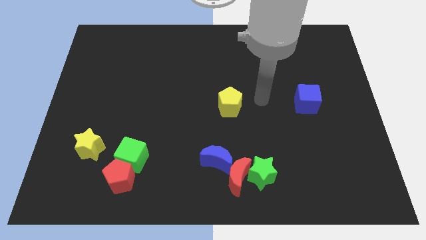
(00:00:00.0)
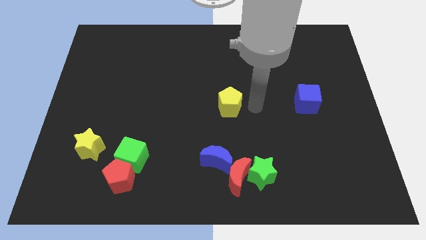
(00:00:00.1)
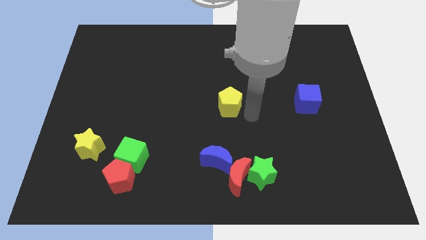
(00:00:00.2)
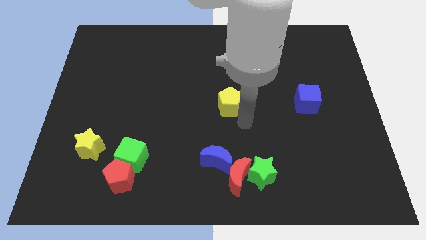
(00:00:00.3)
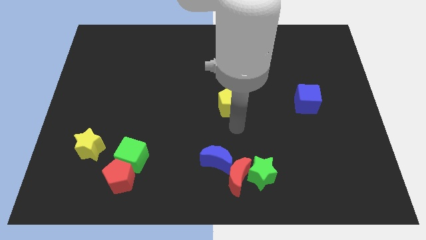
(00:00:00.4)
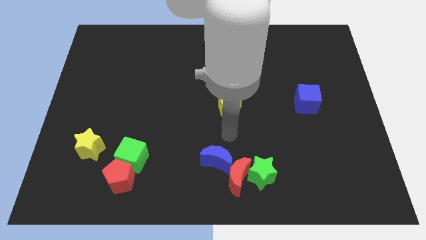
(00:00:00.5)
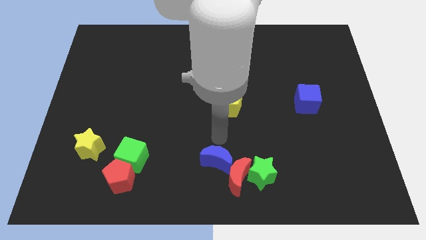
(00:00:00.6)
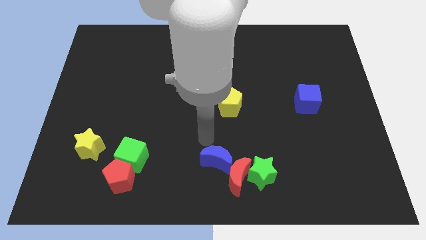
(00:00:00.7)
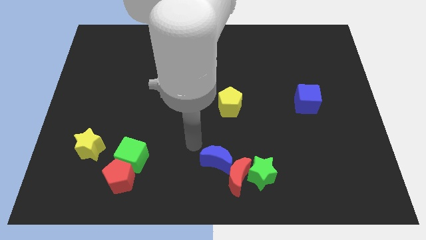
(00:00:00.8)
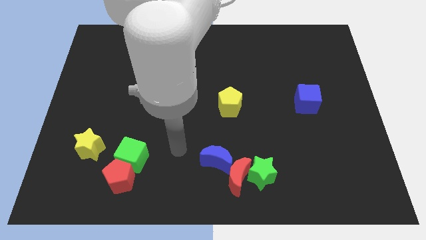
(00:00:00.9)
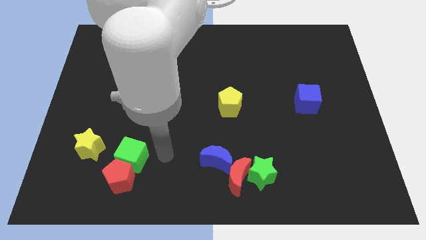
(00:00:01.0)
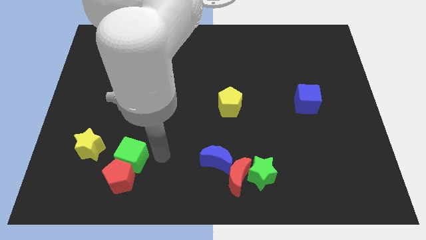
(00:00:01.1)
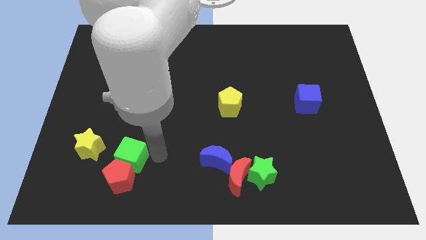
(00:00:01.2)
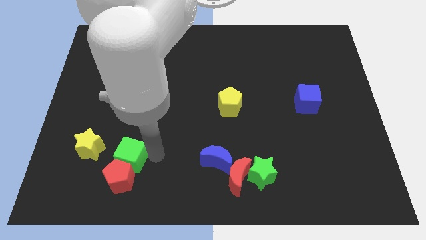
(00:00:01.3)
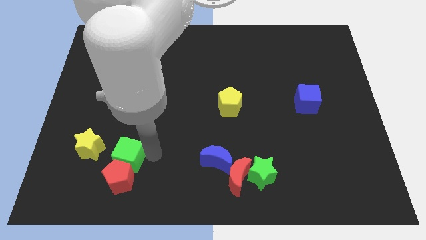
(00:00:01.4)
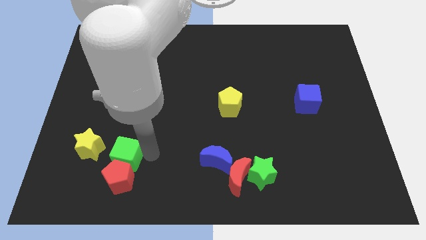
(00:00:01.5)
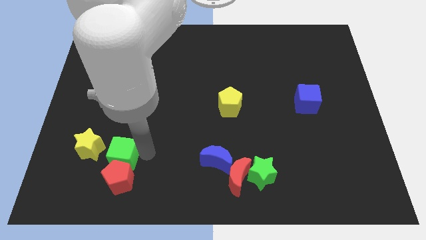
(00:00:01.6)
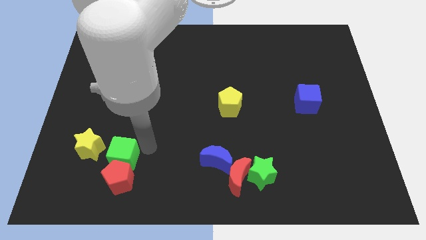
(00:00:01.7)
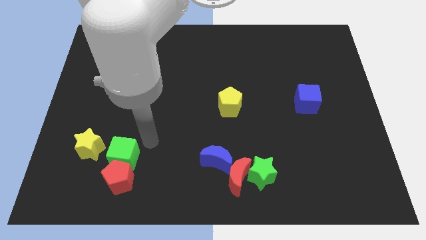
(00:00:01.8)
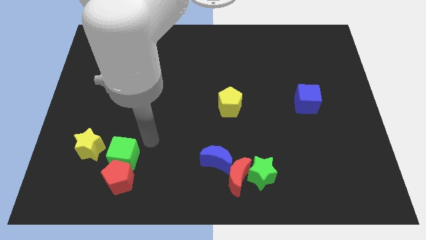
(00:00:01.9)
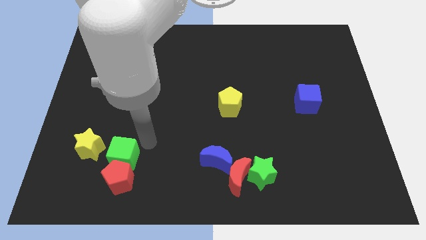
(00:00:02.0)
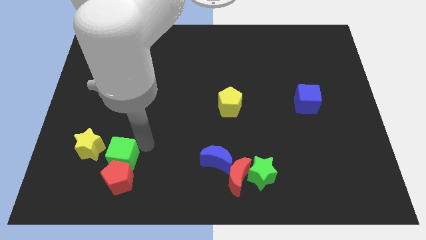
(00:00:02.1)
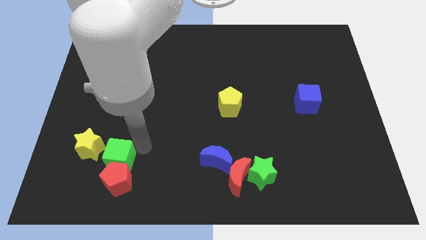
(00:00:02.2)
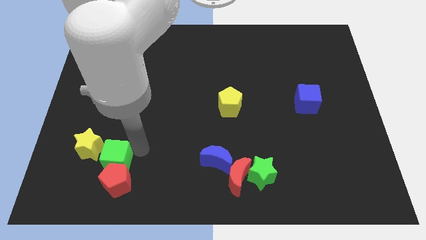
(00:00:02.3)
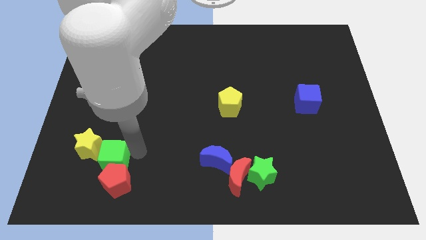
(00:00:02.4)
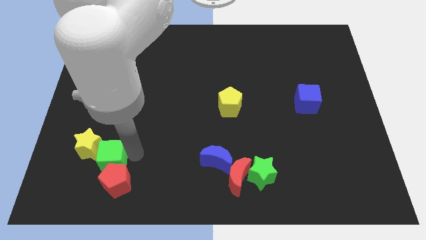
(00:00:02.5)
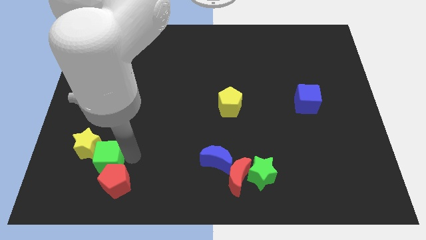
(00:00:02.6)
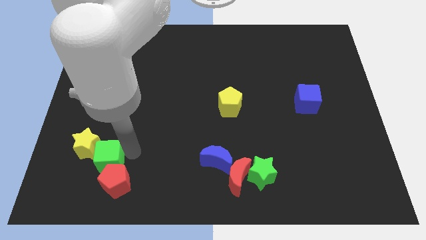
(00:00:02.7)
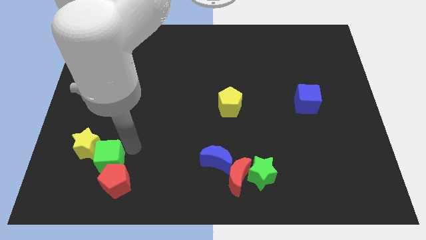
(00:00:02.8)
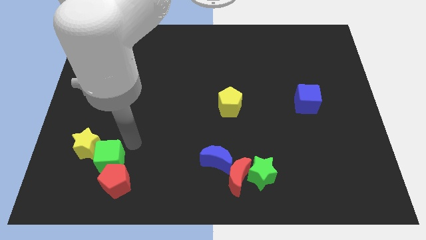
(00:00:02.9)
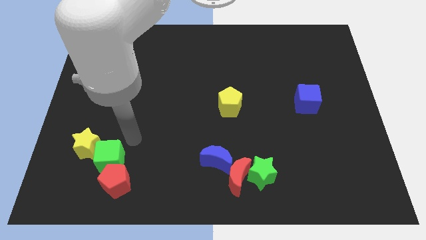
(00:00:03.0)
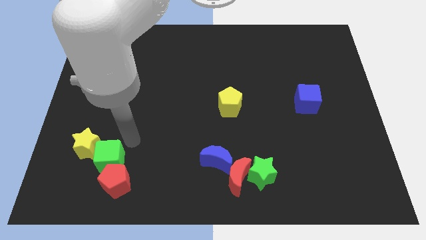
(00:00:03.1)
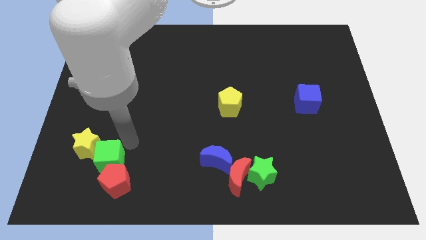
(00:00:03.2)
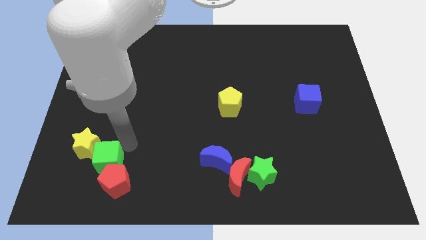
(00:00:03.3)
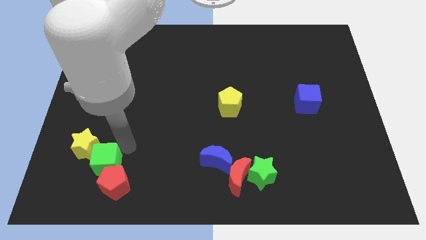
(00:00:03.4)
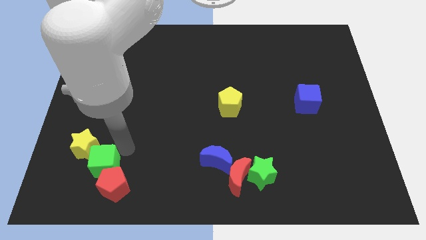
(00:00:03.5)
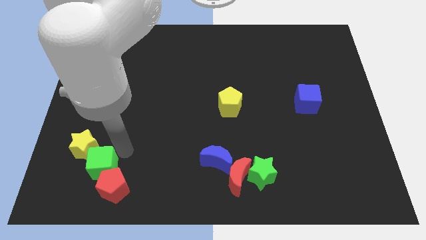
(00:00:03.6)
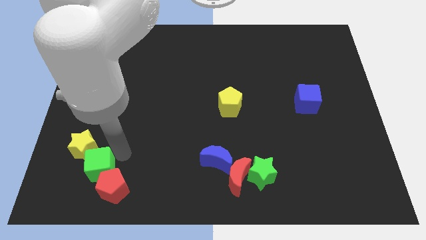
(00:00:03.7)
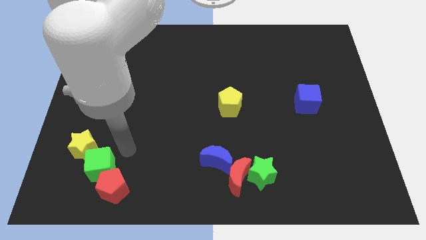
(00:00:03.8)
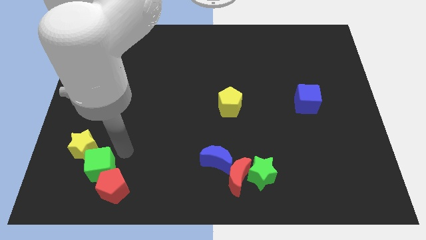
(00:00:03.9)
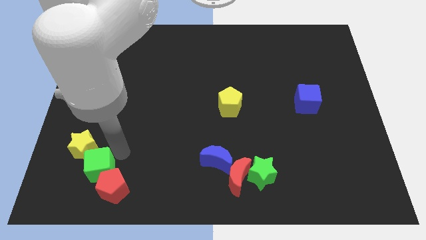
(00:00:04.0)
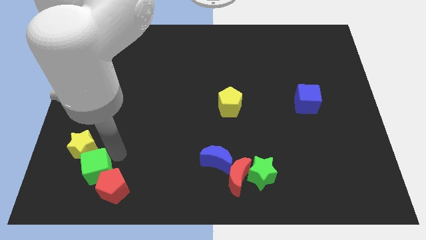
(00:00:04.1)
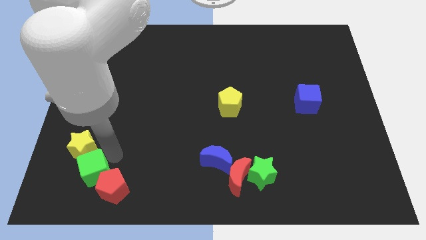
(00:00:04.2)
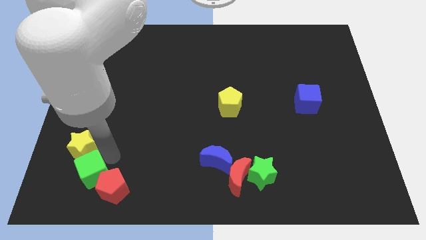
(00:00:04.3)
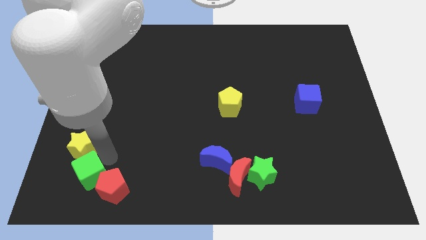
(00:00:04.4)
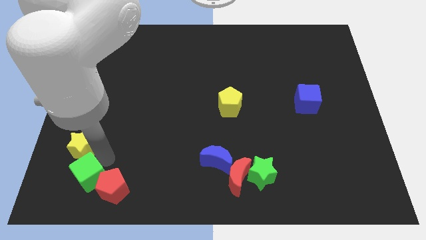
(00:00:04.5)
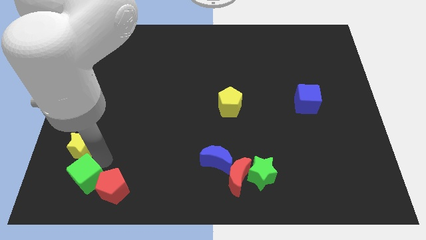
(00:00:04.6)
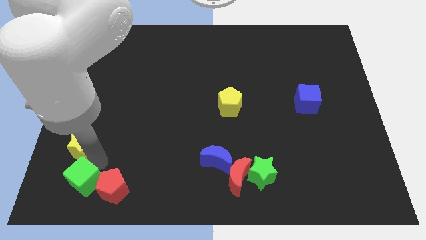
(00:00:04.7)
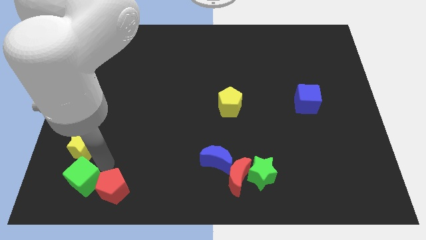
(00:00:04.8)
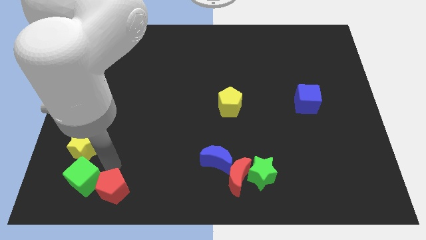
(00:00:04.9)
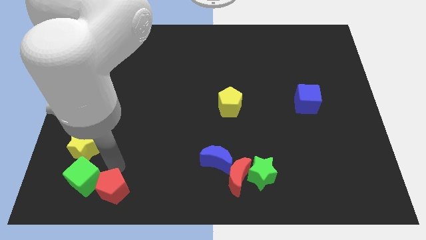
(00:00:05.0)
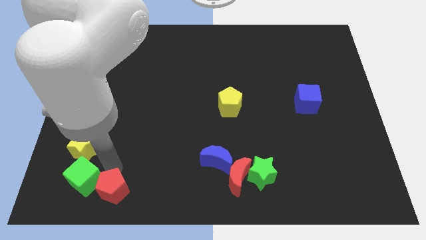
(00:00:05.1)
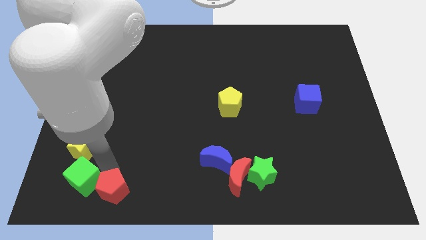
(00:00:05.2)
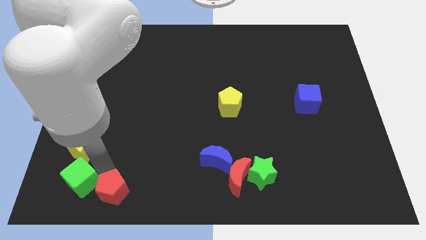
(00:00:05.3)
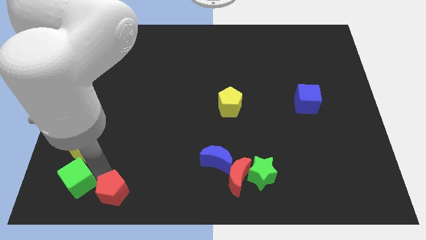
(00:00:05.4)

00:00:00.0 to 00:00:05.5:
move the green cube to the bottom left of the board

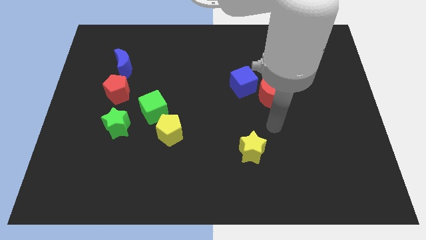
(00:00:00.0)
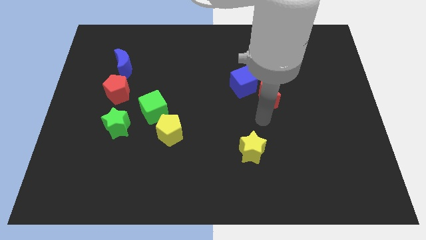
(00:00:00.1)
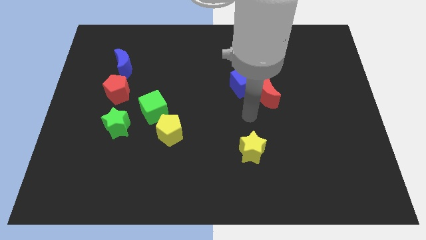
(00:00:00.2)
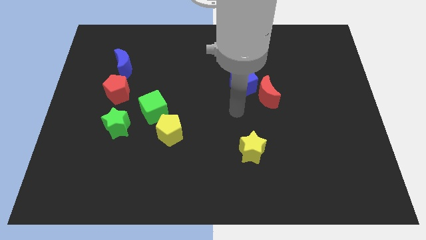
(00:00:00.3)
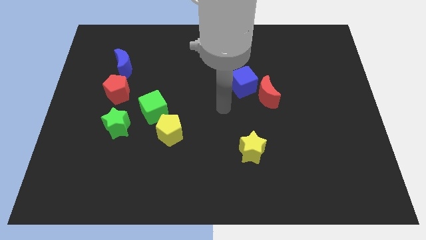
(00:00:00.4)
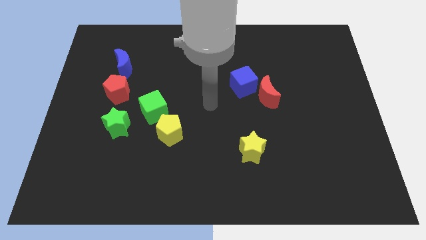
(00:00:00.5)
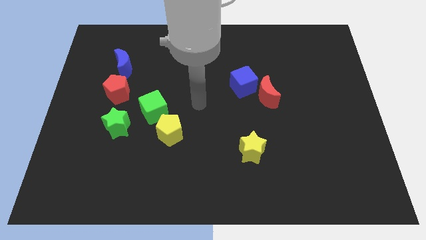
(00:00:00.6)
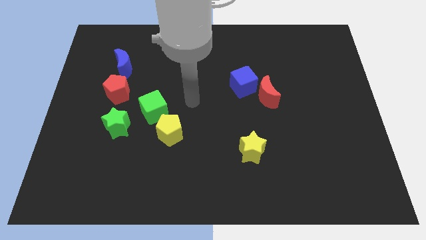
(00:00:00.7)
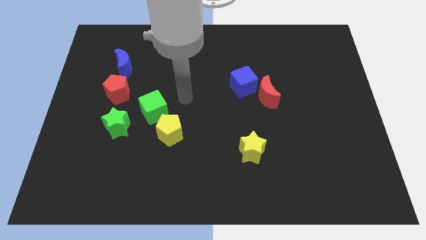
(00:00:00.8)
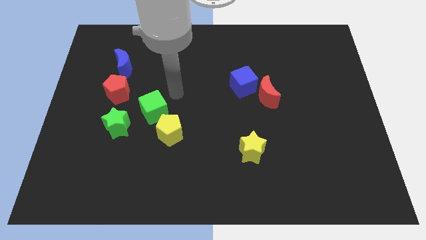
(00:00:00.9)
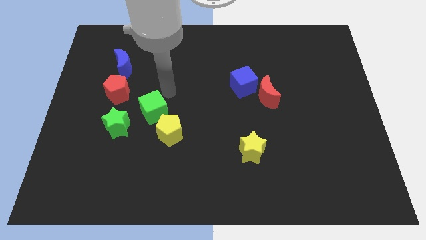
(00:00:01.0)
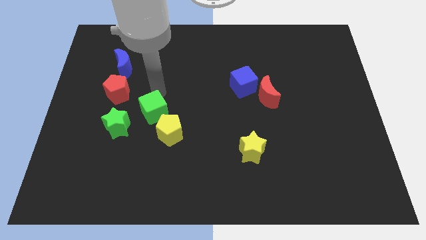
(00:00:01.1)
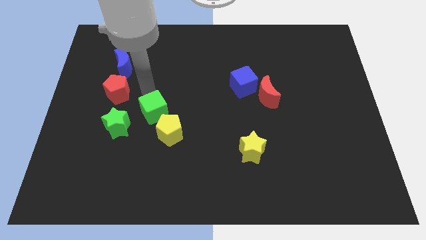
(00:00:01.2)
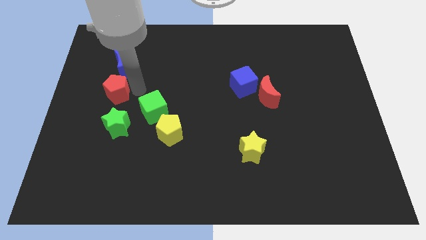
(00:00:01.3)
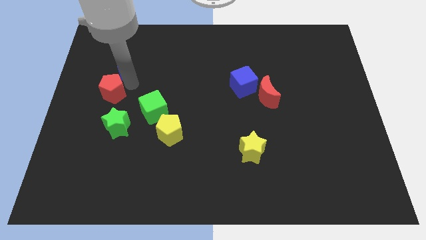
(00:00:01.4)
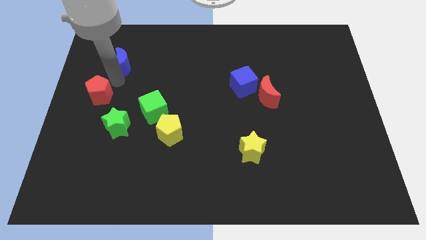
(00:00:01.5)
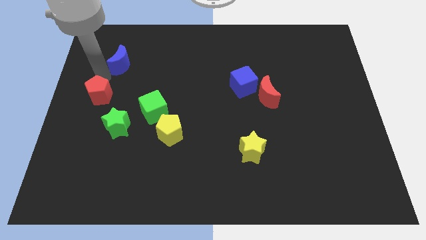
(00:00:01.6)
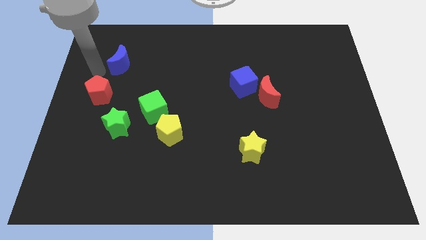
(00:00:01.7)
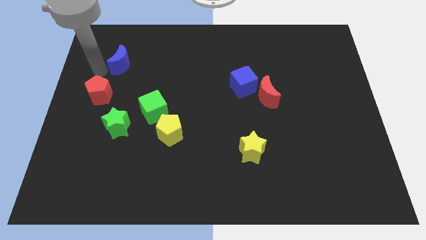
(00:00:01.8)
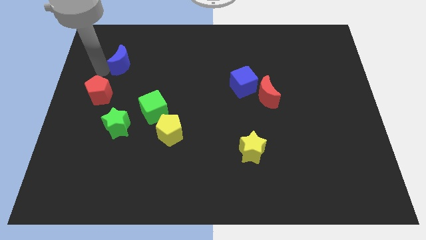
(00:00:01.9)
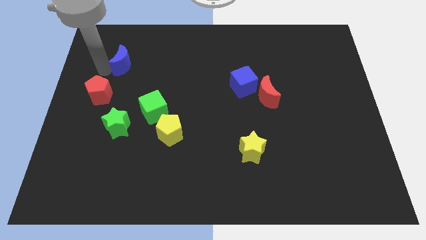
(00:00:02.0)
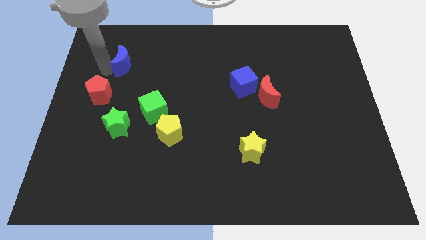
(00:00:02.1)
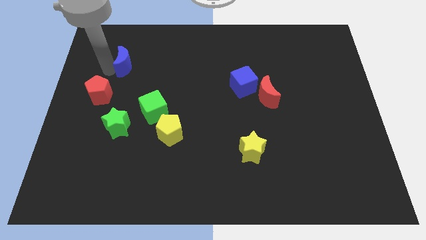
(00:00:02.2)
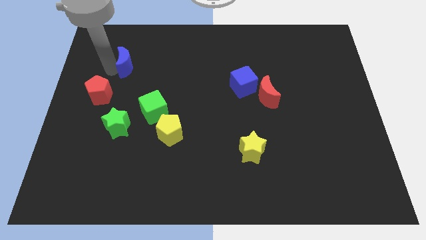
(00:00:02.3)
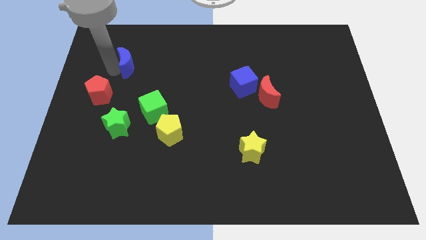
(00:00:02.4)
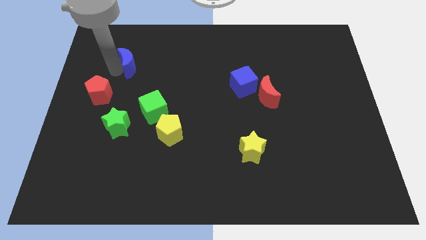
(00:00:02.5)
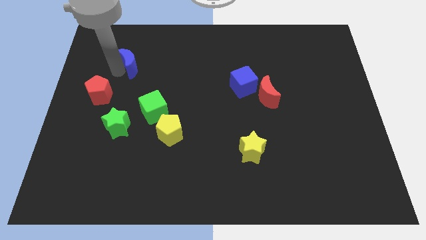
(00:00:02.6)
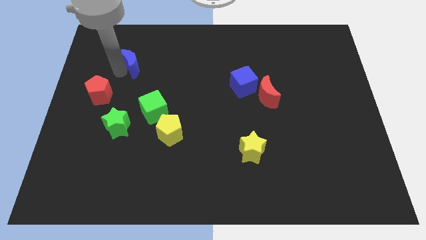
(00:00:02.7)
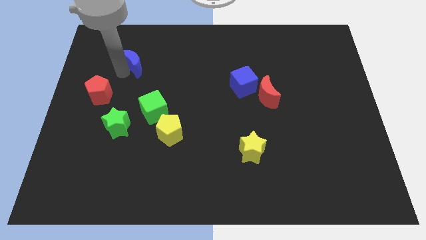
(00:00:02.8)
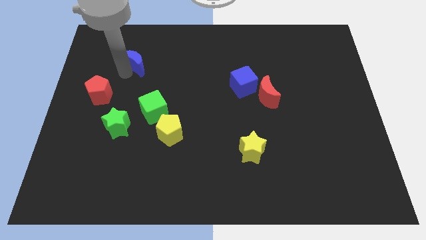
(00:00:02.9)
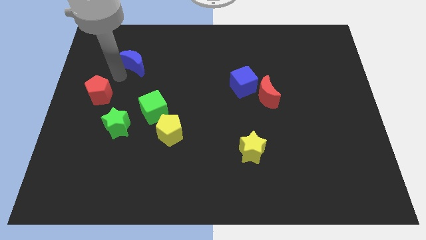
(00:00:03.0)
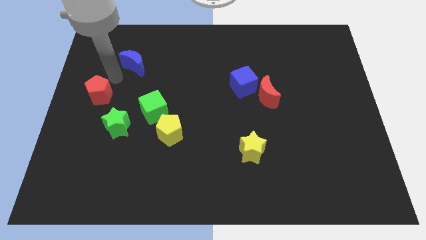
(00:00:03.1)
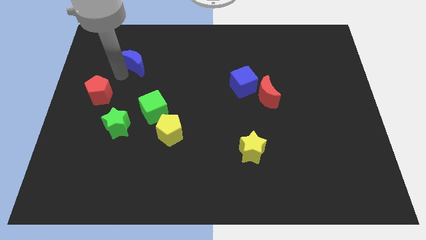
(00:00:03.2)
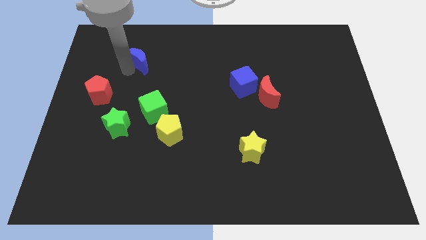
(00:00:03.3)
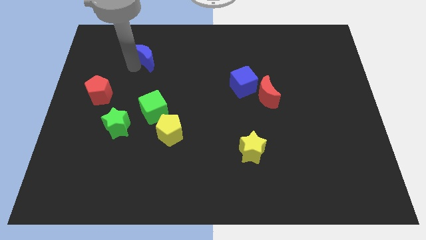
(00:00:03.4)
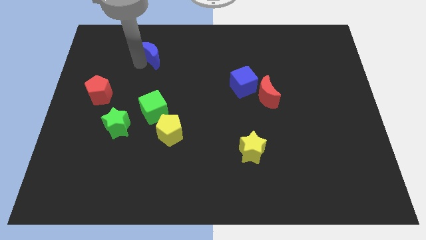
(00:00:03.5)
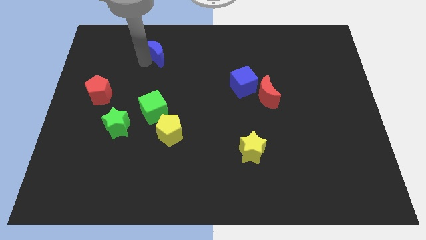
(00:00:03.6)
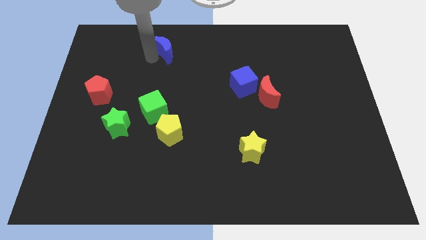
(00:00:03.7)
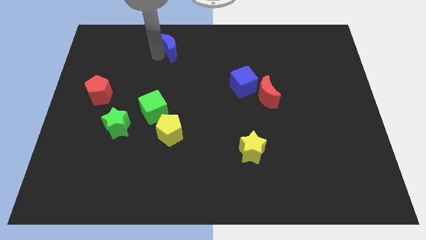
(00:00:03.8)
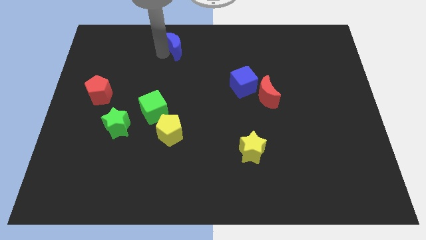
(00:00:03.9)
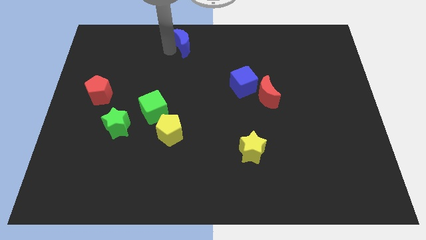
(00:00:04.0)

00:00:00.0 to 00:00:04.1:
push the blue moon to the towards your base
